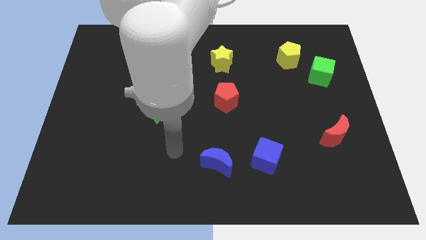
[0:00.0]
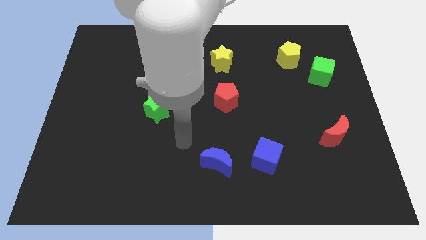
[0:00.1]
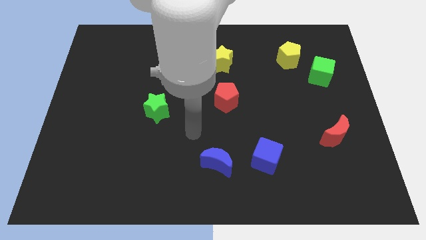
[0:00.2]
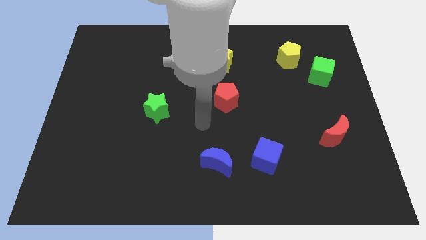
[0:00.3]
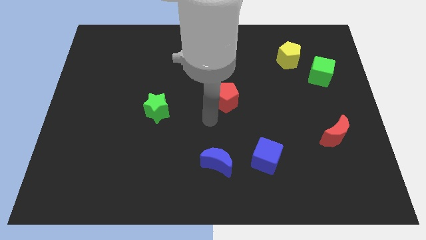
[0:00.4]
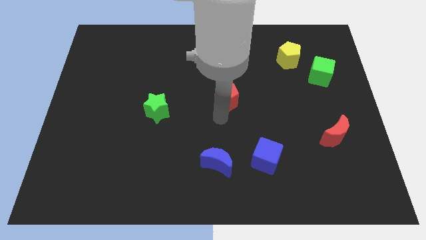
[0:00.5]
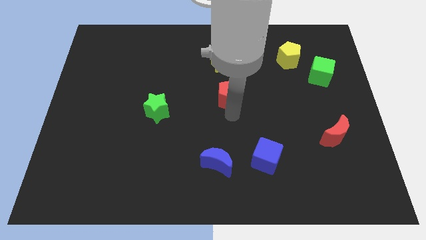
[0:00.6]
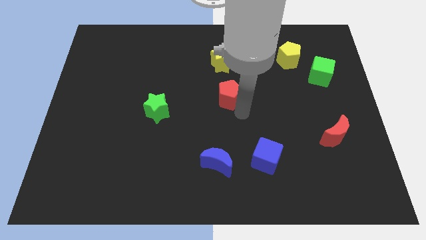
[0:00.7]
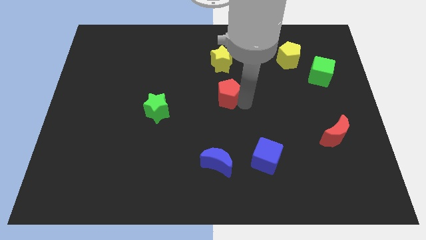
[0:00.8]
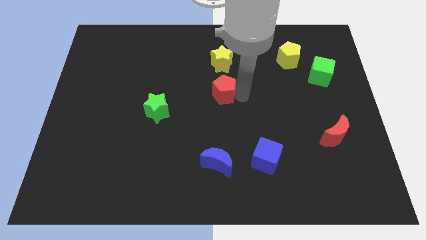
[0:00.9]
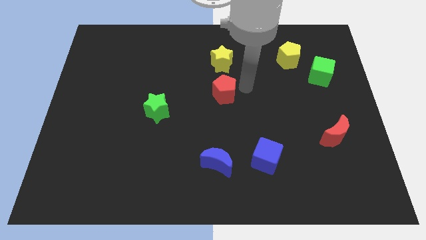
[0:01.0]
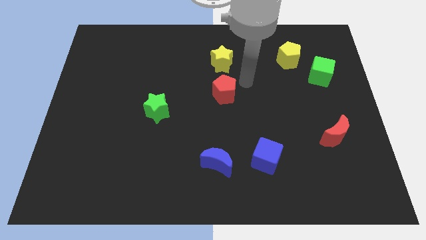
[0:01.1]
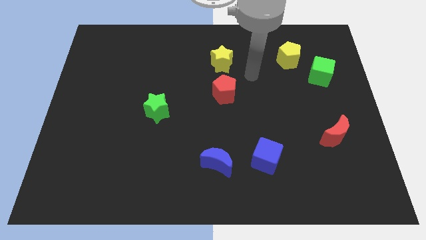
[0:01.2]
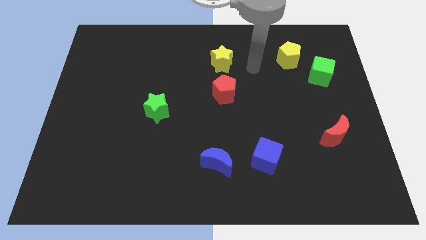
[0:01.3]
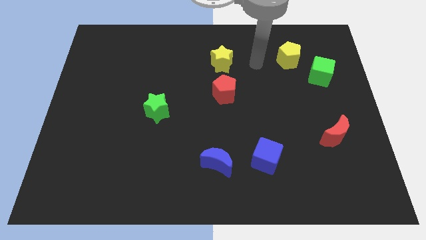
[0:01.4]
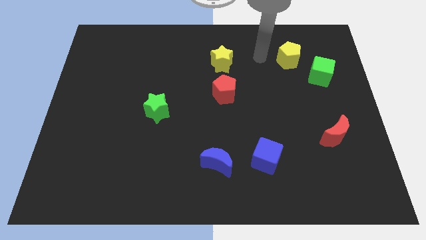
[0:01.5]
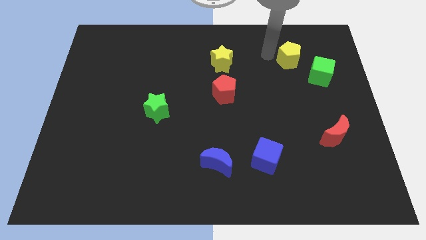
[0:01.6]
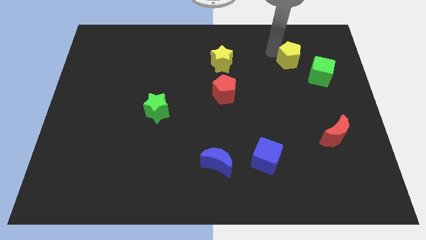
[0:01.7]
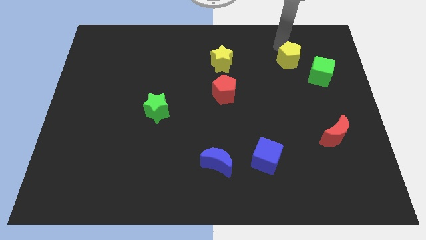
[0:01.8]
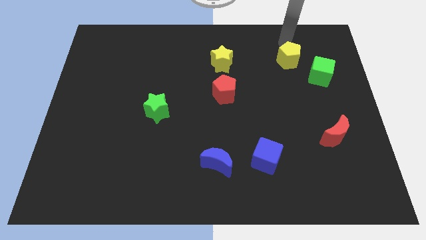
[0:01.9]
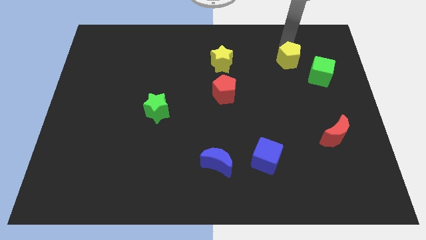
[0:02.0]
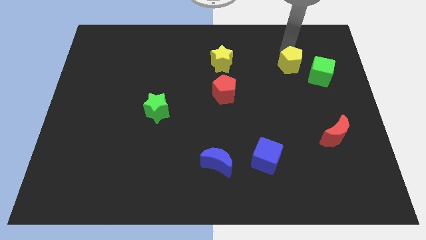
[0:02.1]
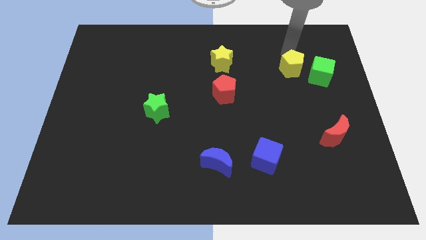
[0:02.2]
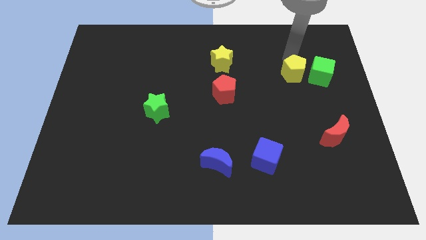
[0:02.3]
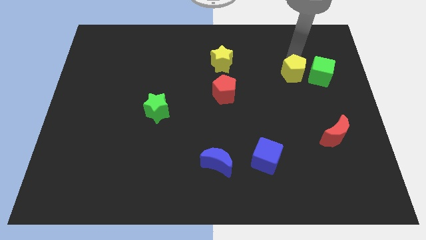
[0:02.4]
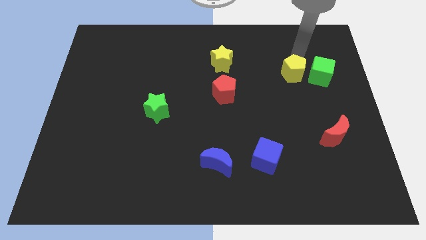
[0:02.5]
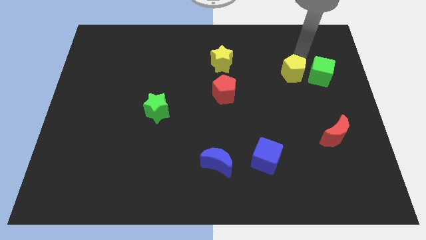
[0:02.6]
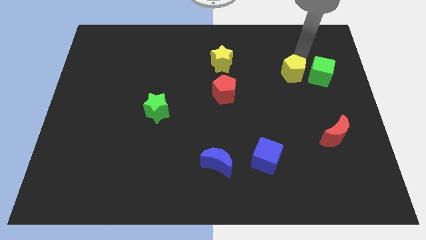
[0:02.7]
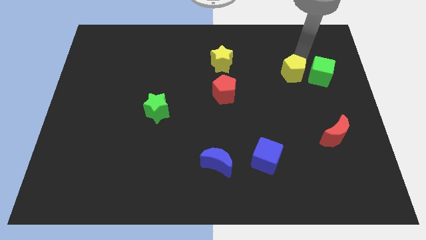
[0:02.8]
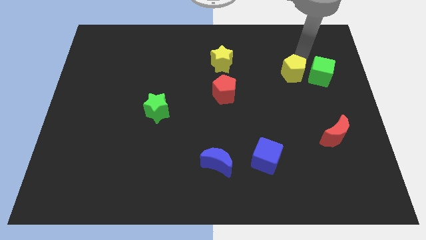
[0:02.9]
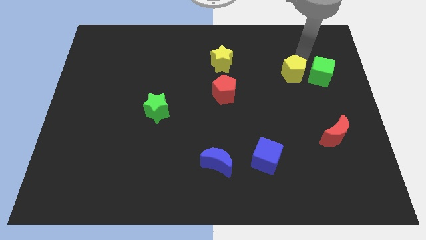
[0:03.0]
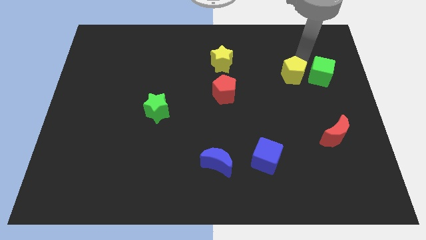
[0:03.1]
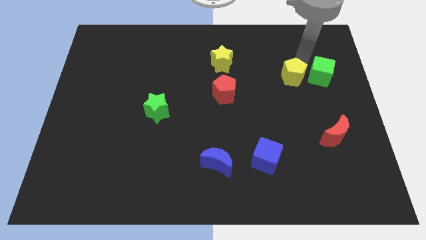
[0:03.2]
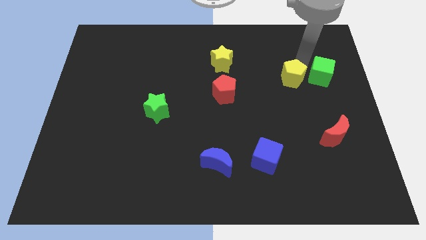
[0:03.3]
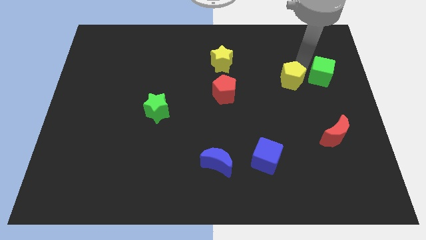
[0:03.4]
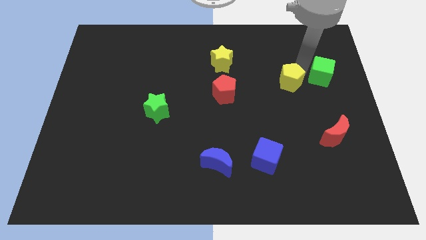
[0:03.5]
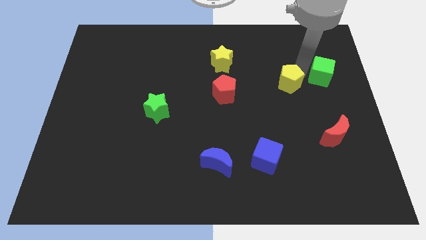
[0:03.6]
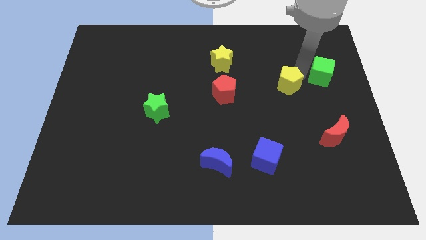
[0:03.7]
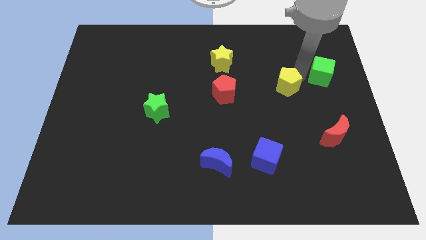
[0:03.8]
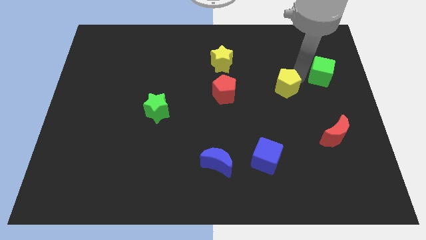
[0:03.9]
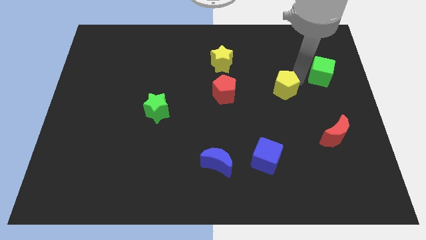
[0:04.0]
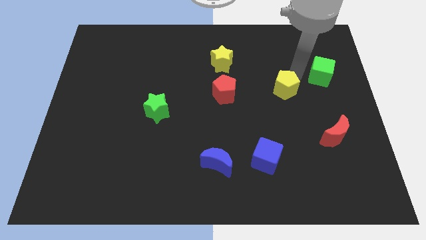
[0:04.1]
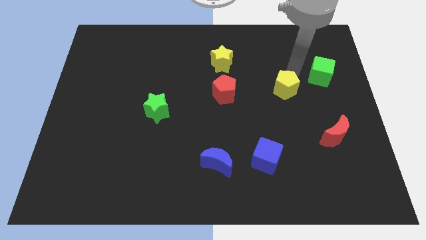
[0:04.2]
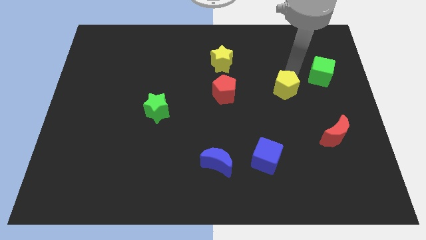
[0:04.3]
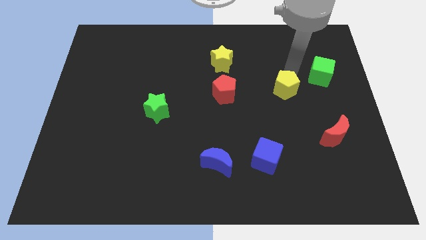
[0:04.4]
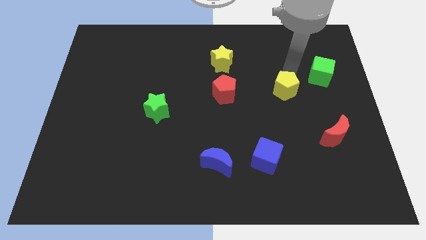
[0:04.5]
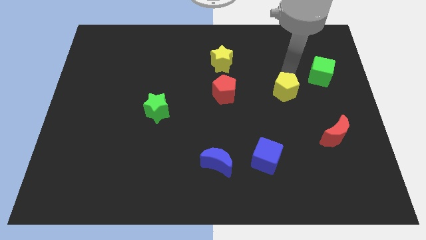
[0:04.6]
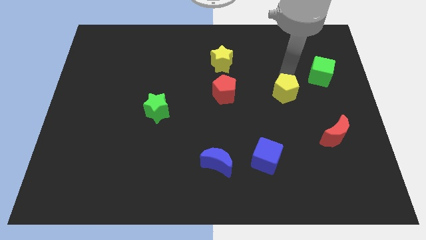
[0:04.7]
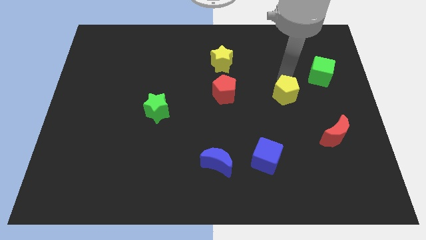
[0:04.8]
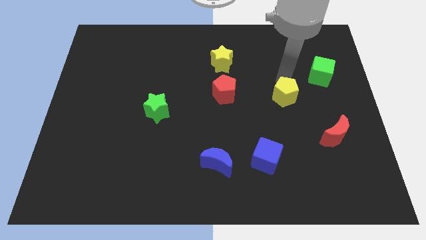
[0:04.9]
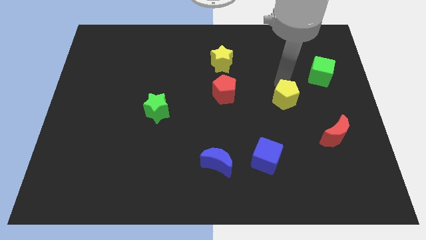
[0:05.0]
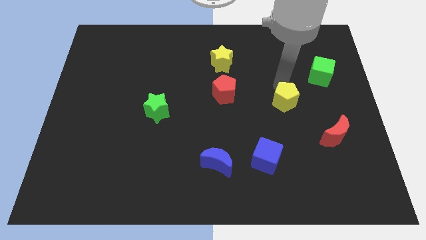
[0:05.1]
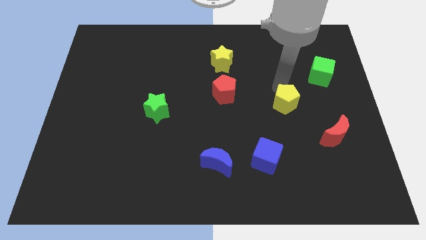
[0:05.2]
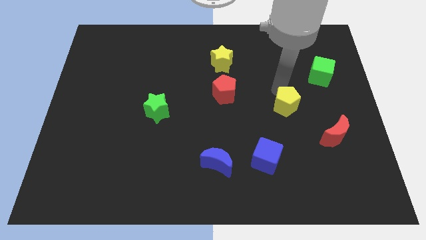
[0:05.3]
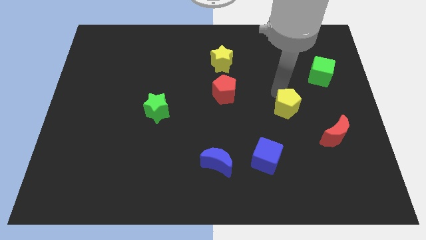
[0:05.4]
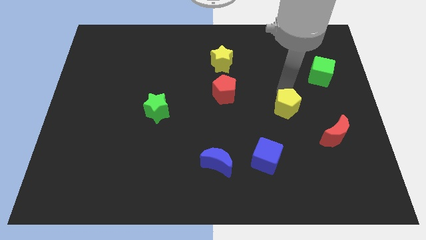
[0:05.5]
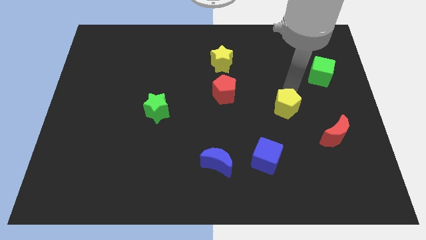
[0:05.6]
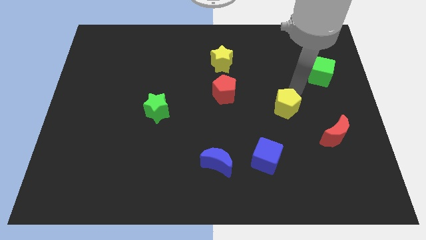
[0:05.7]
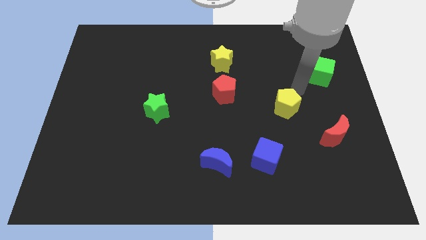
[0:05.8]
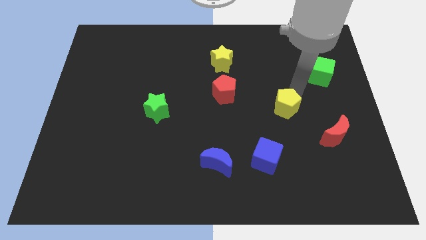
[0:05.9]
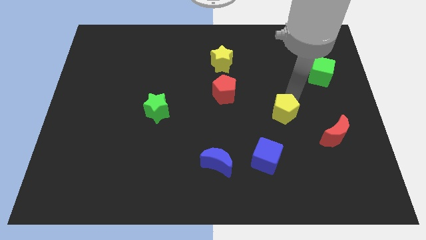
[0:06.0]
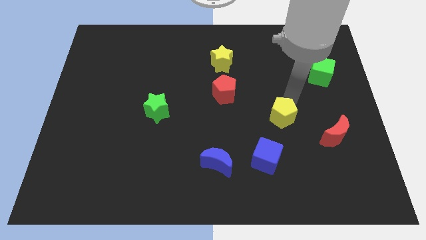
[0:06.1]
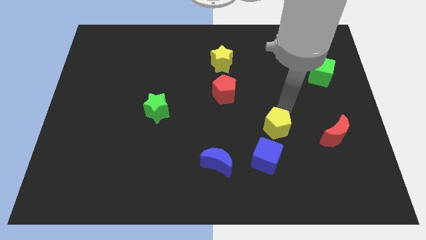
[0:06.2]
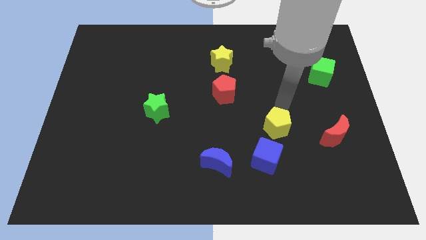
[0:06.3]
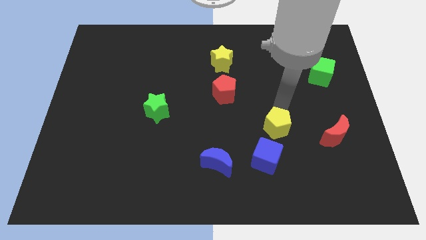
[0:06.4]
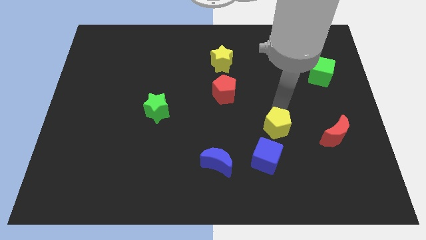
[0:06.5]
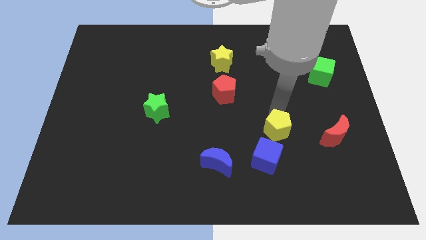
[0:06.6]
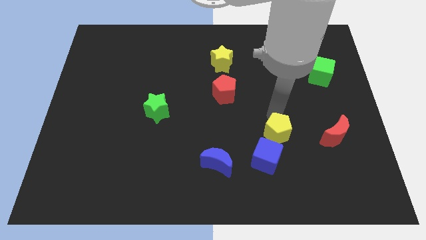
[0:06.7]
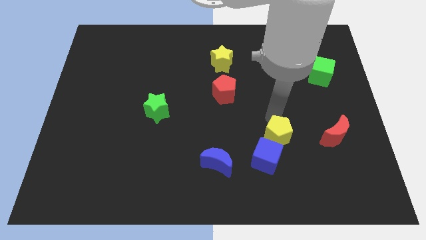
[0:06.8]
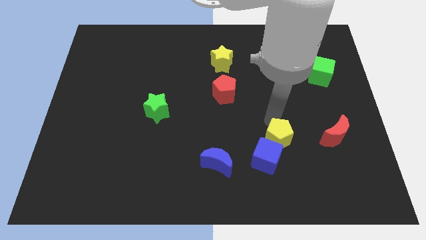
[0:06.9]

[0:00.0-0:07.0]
move the yellow pentagon towards the blue cube
